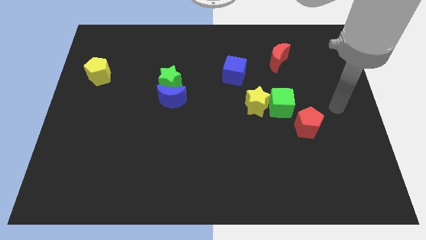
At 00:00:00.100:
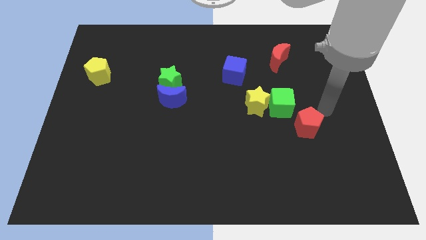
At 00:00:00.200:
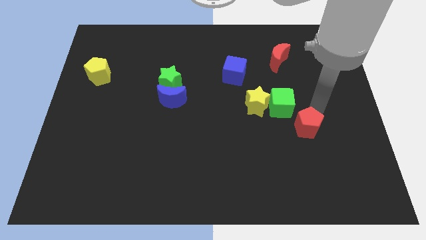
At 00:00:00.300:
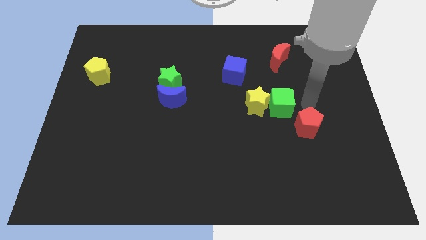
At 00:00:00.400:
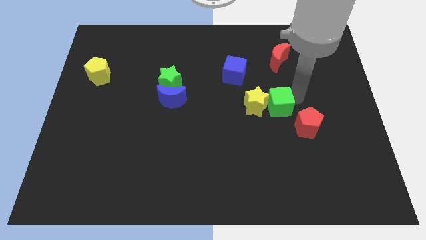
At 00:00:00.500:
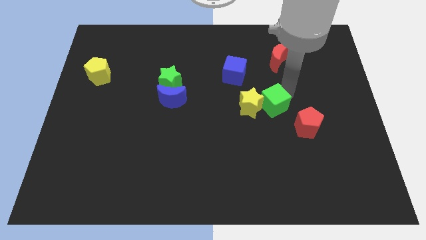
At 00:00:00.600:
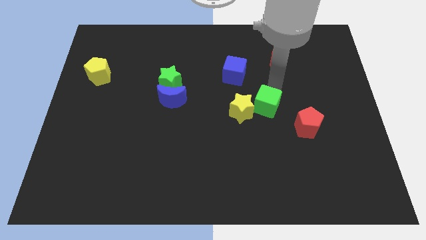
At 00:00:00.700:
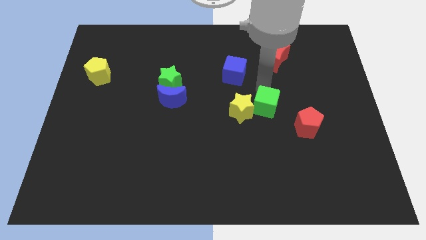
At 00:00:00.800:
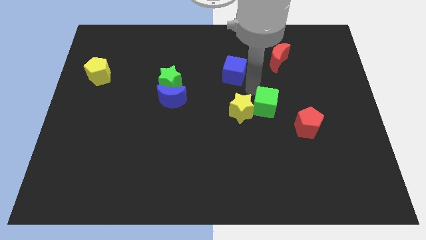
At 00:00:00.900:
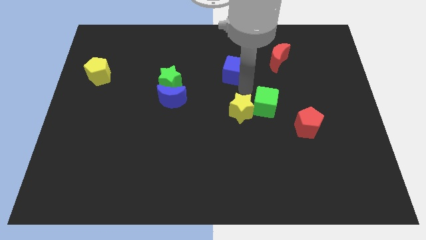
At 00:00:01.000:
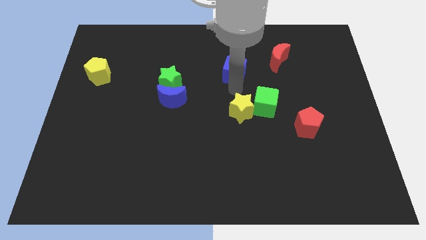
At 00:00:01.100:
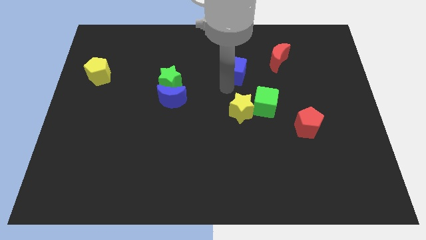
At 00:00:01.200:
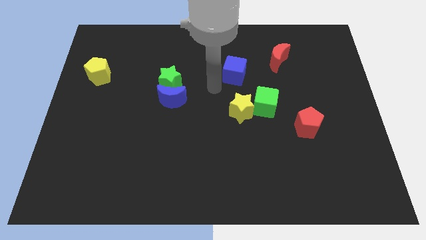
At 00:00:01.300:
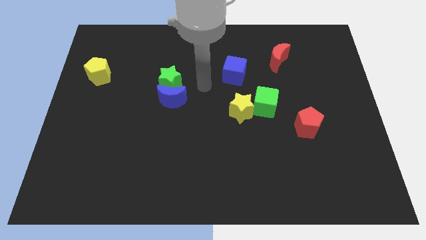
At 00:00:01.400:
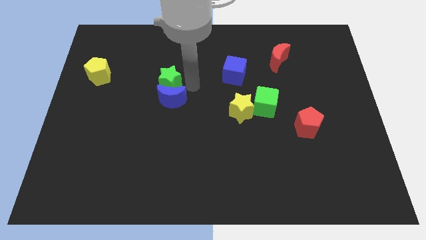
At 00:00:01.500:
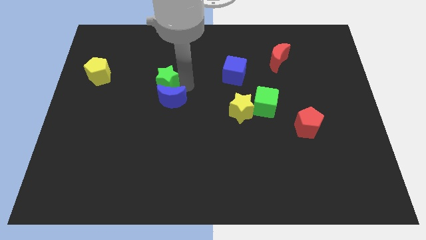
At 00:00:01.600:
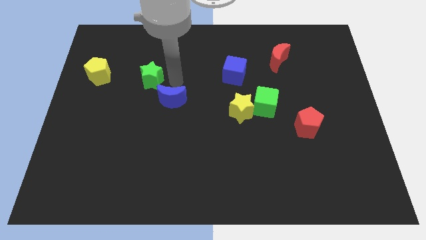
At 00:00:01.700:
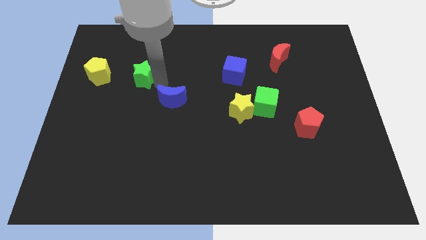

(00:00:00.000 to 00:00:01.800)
move the blue moon away from the green star

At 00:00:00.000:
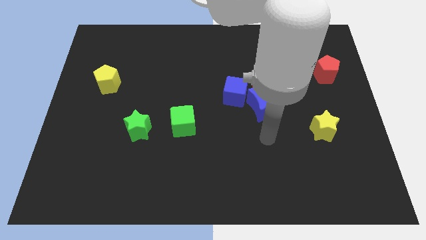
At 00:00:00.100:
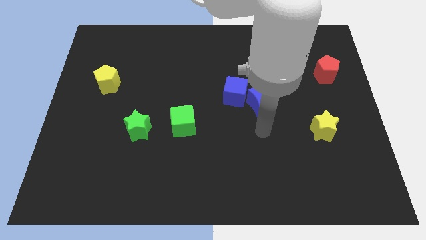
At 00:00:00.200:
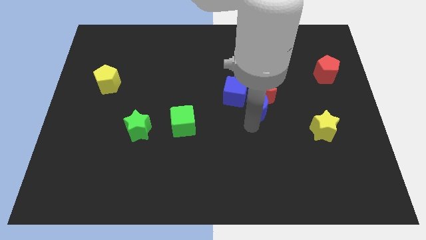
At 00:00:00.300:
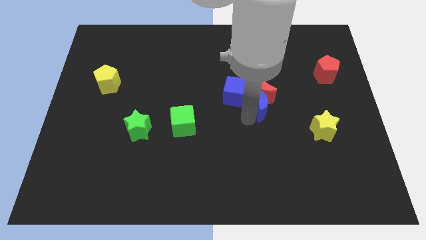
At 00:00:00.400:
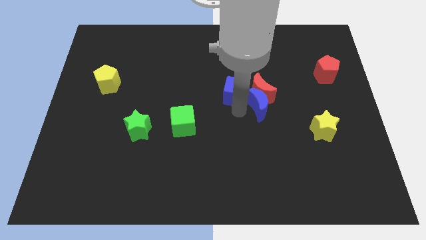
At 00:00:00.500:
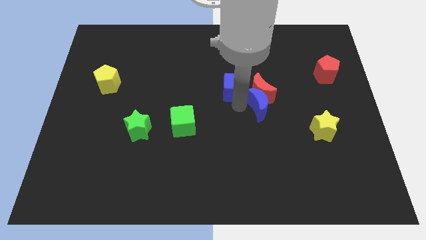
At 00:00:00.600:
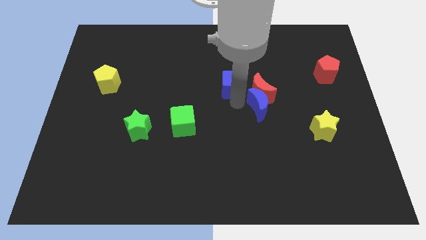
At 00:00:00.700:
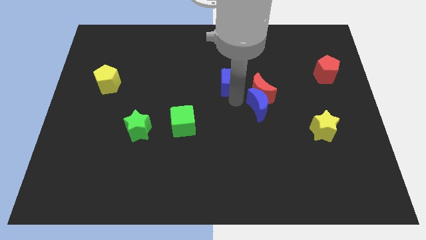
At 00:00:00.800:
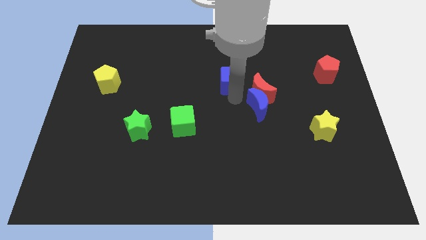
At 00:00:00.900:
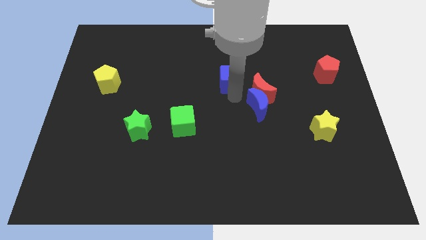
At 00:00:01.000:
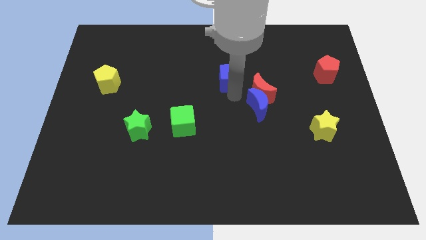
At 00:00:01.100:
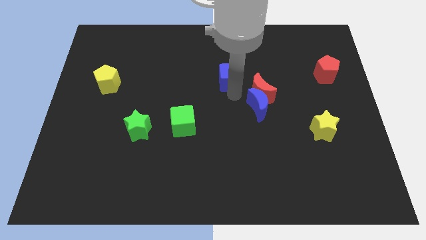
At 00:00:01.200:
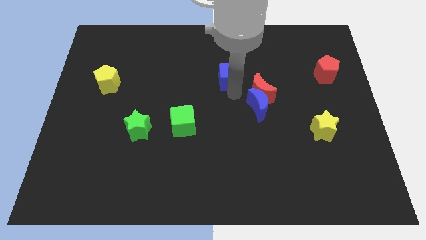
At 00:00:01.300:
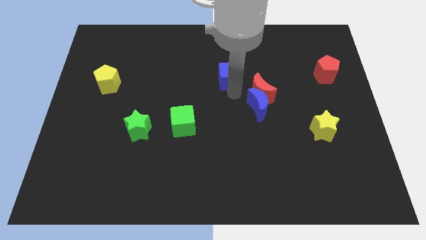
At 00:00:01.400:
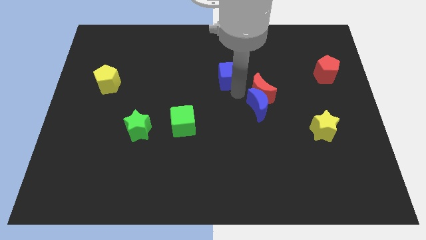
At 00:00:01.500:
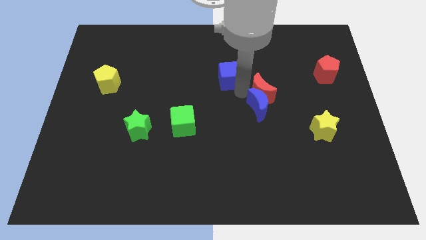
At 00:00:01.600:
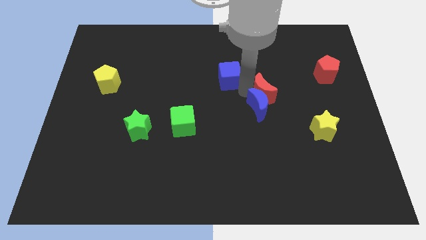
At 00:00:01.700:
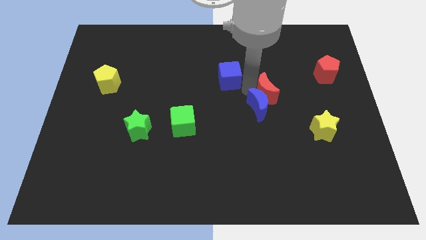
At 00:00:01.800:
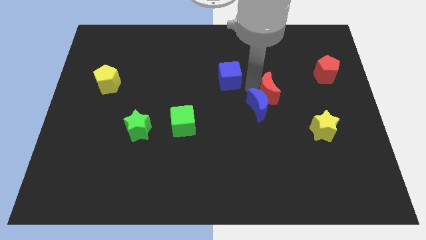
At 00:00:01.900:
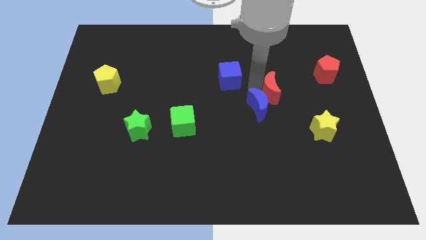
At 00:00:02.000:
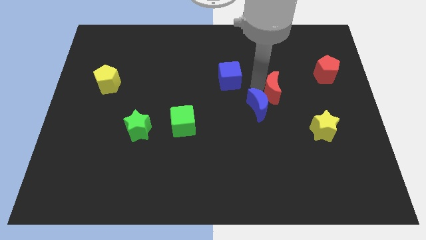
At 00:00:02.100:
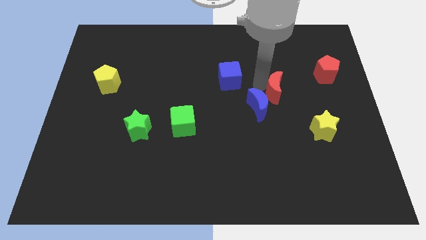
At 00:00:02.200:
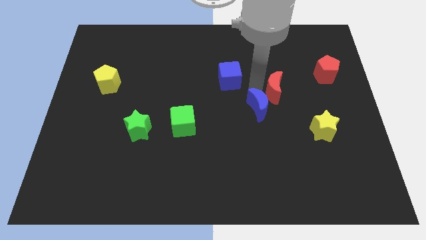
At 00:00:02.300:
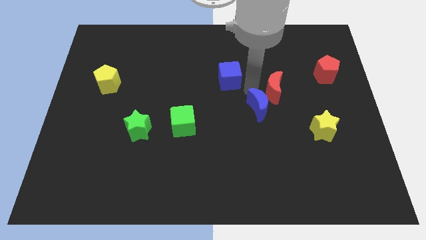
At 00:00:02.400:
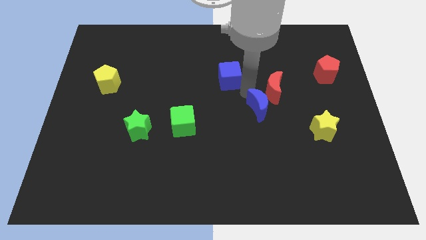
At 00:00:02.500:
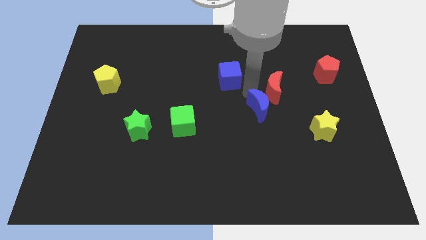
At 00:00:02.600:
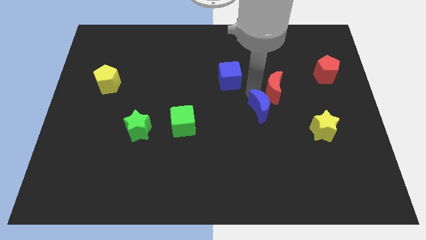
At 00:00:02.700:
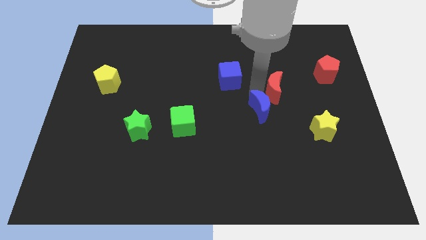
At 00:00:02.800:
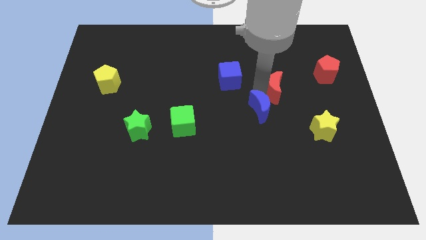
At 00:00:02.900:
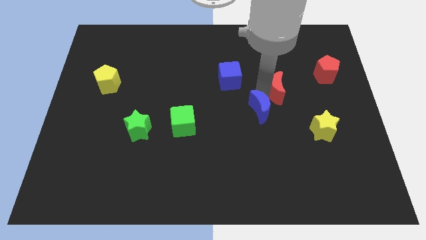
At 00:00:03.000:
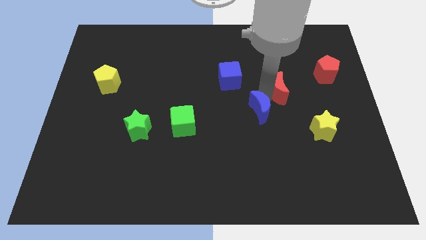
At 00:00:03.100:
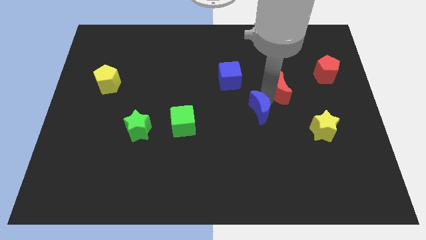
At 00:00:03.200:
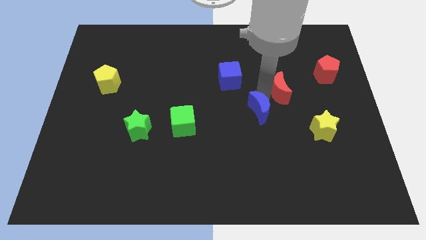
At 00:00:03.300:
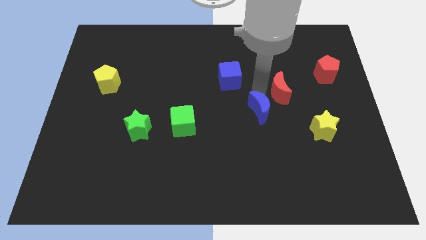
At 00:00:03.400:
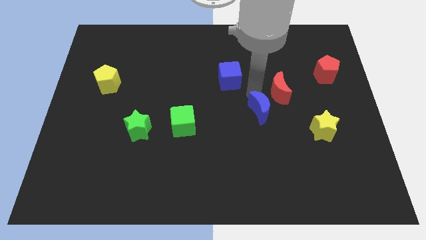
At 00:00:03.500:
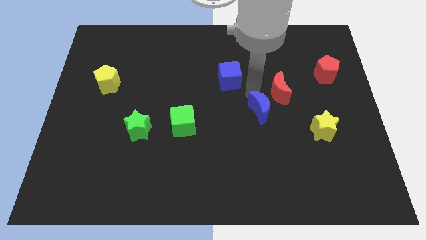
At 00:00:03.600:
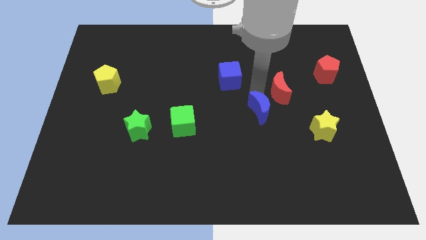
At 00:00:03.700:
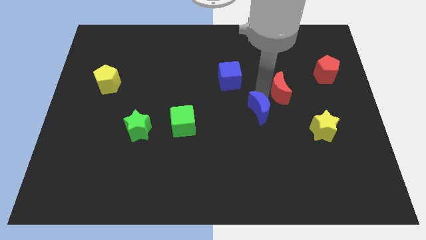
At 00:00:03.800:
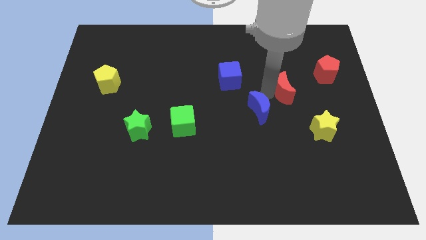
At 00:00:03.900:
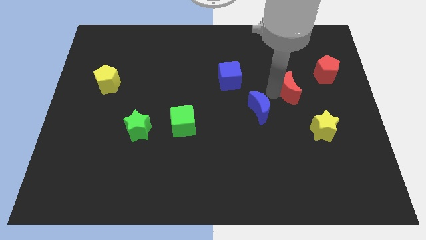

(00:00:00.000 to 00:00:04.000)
separate the red moon from the blue moon and blue cube

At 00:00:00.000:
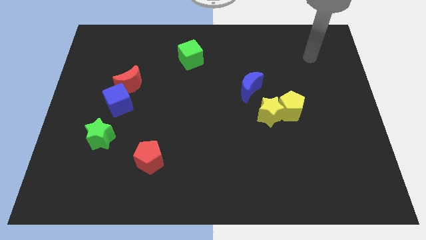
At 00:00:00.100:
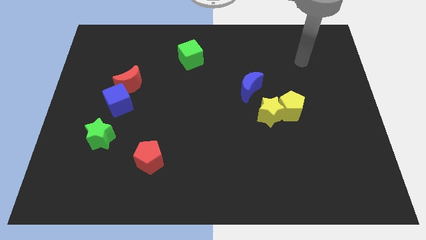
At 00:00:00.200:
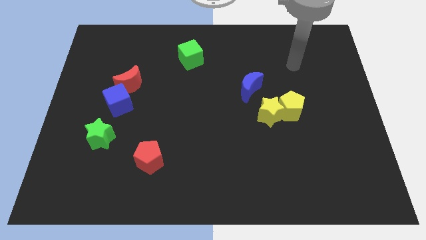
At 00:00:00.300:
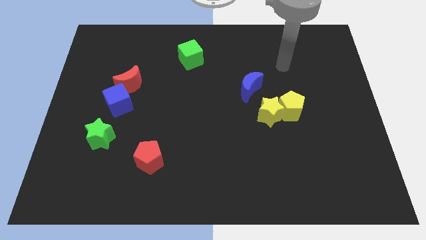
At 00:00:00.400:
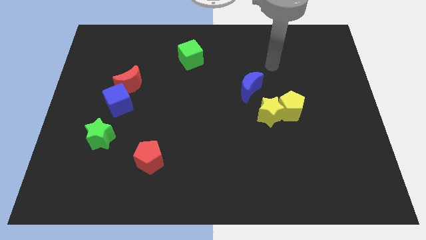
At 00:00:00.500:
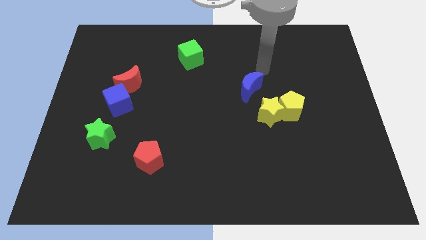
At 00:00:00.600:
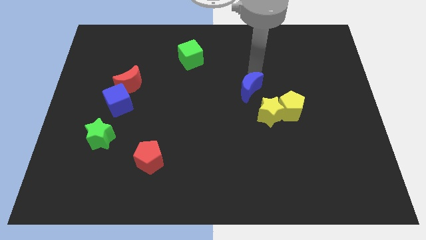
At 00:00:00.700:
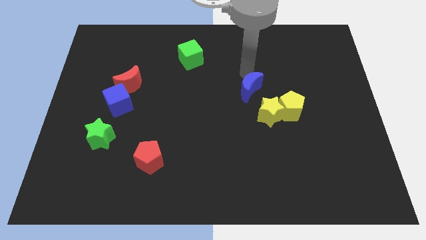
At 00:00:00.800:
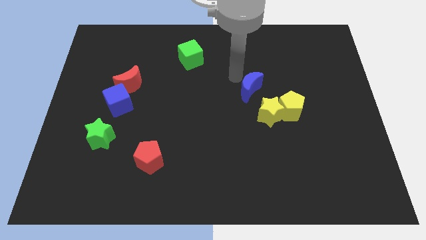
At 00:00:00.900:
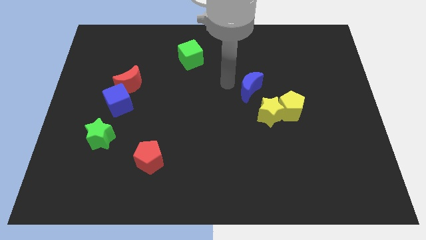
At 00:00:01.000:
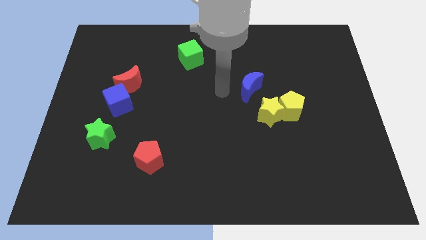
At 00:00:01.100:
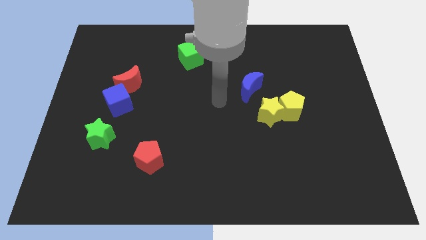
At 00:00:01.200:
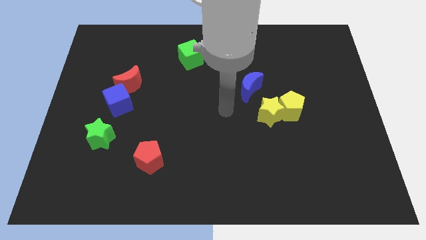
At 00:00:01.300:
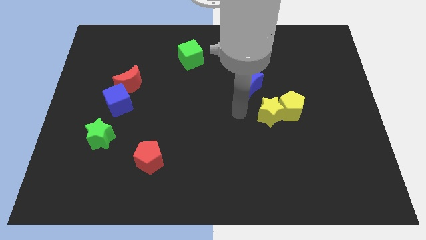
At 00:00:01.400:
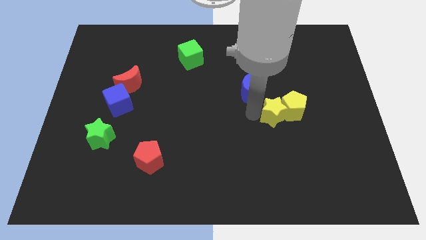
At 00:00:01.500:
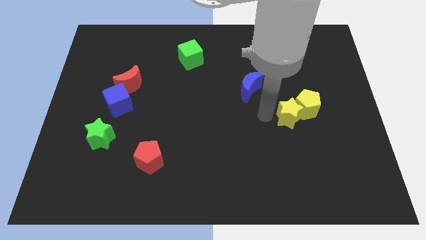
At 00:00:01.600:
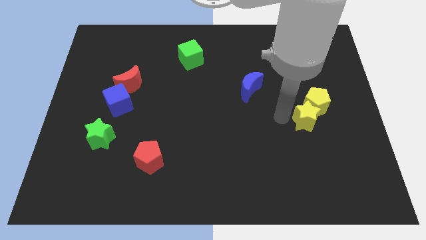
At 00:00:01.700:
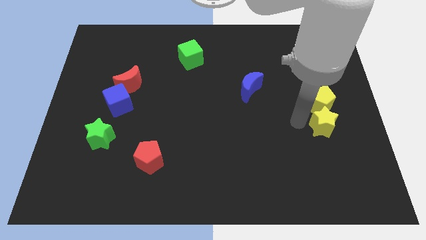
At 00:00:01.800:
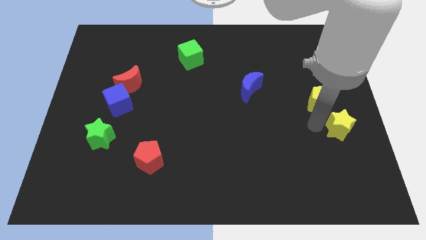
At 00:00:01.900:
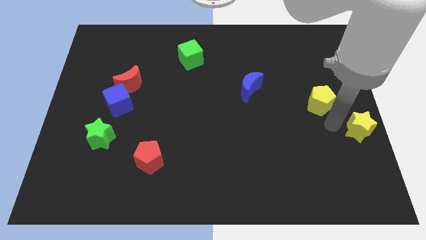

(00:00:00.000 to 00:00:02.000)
move the yellow pentagon away from the yellow star

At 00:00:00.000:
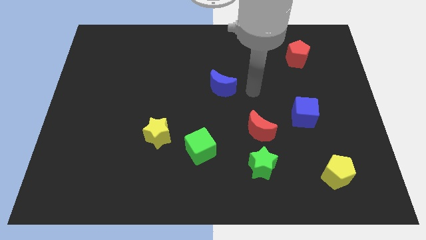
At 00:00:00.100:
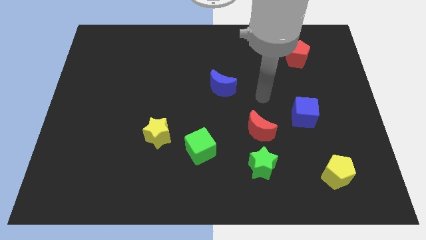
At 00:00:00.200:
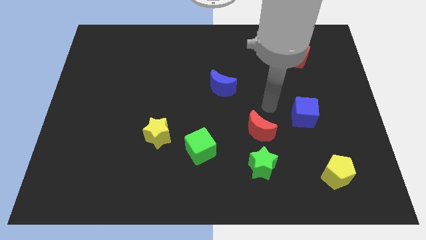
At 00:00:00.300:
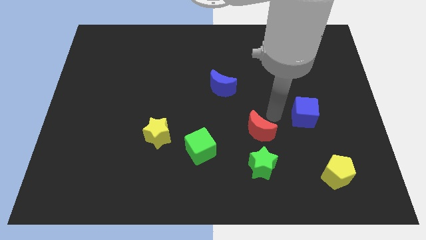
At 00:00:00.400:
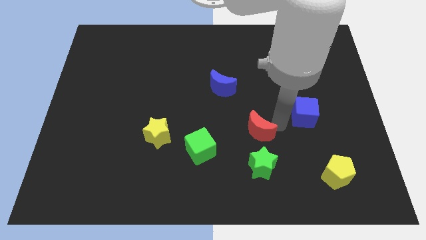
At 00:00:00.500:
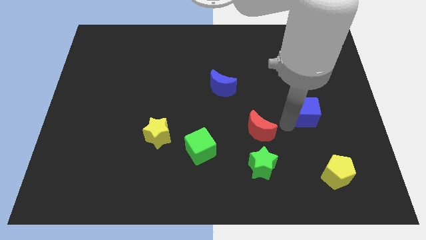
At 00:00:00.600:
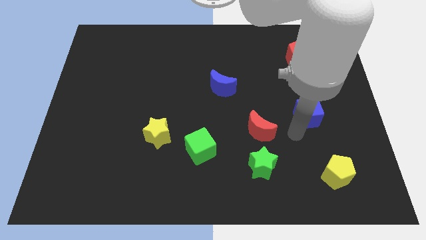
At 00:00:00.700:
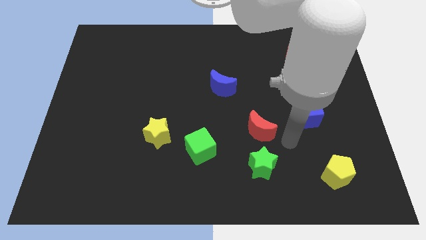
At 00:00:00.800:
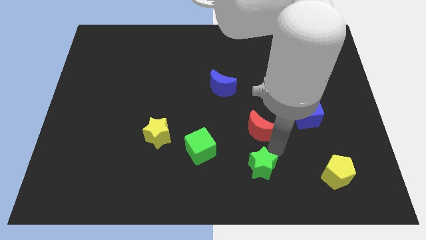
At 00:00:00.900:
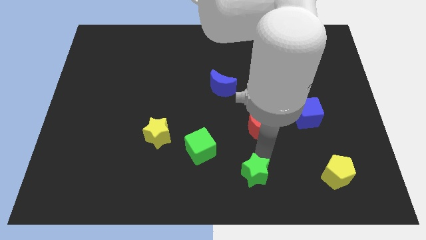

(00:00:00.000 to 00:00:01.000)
pull the red moon apart from the green star

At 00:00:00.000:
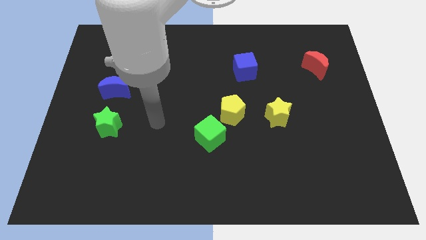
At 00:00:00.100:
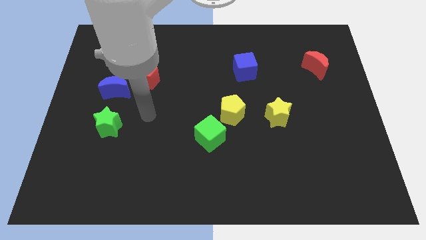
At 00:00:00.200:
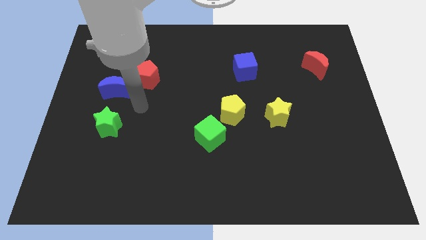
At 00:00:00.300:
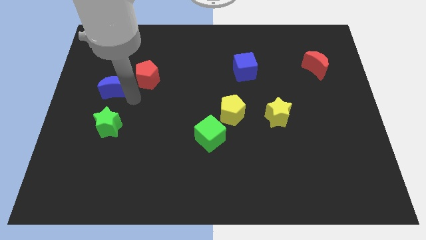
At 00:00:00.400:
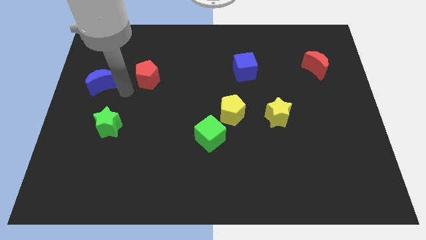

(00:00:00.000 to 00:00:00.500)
move the red pentagon away from the blue moon
